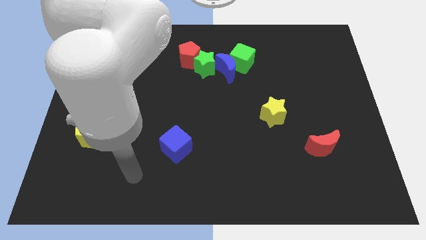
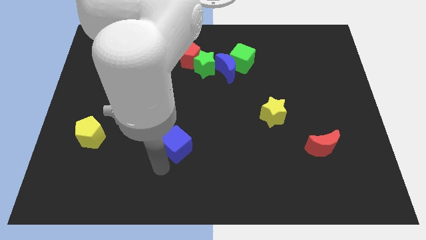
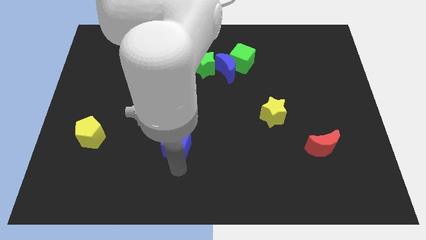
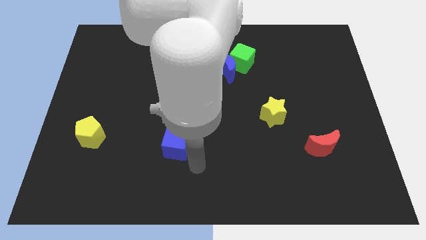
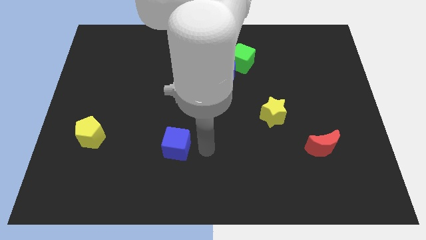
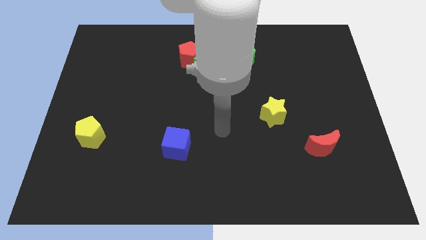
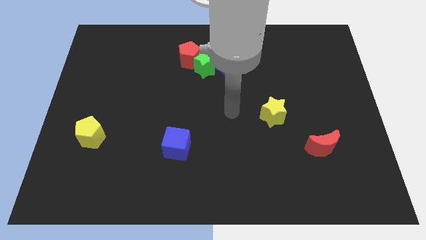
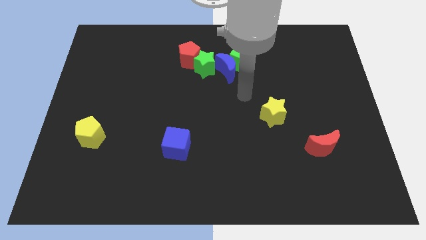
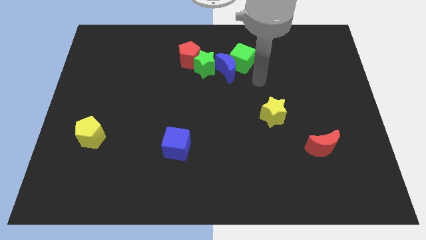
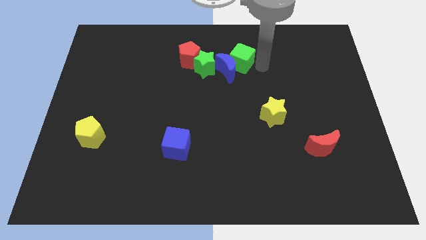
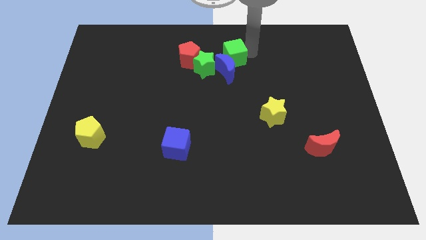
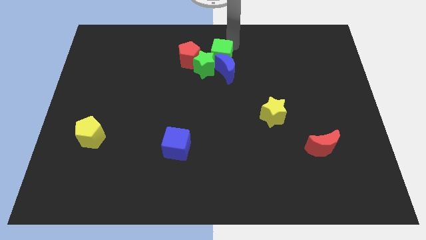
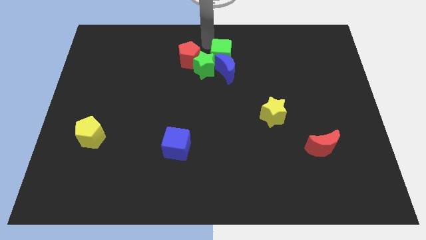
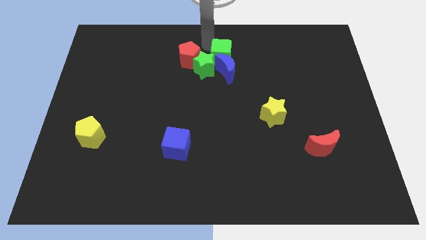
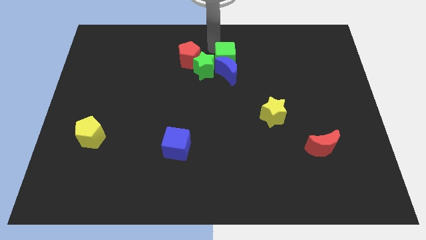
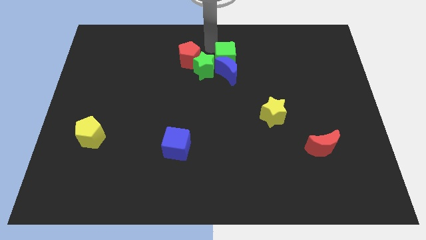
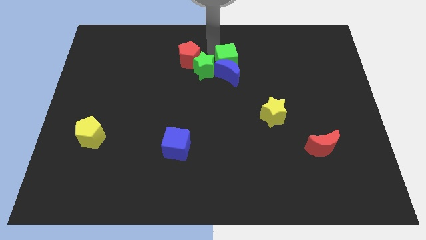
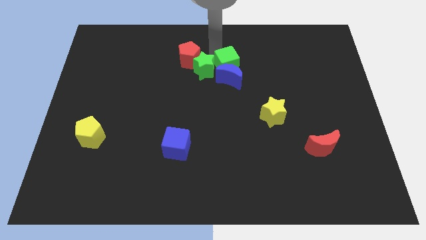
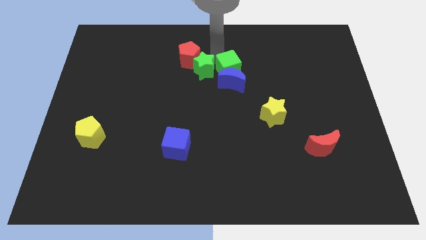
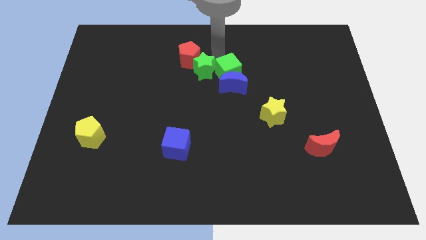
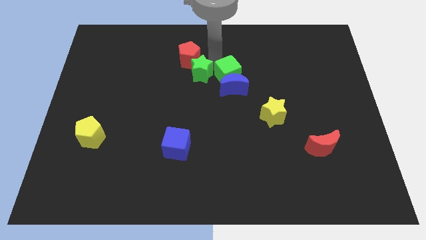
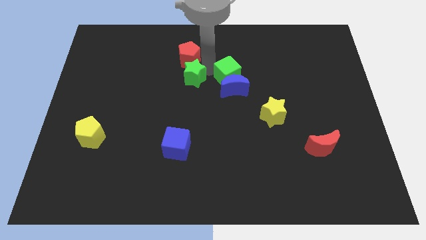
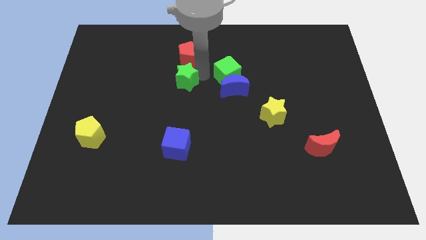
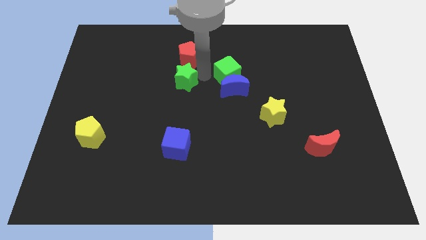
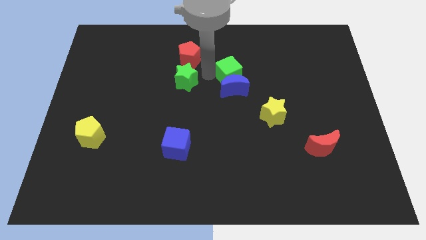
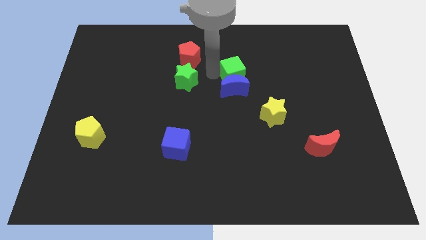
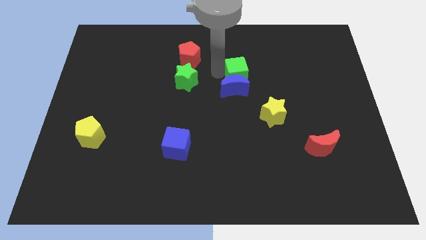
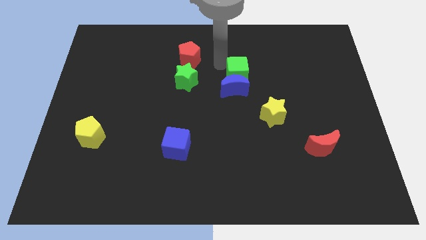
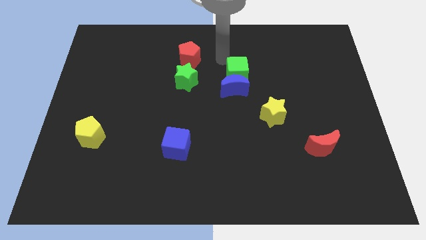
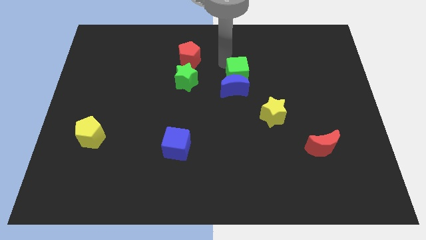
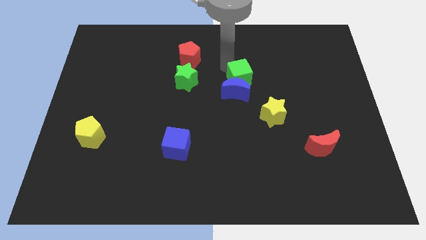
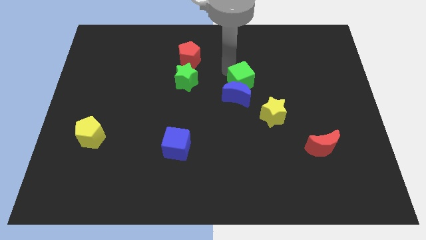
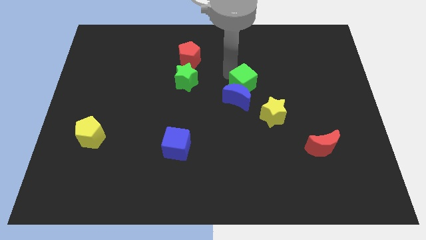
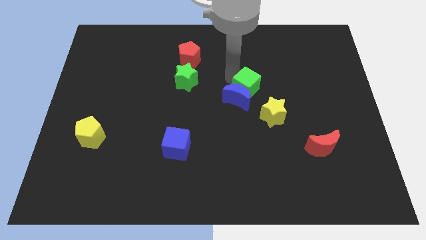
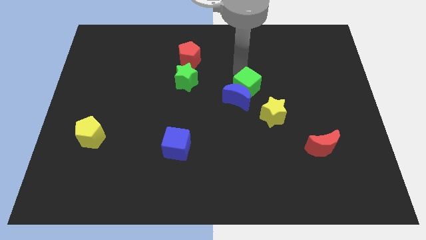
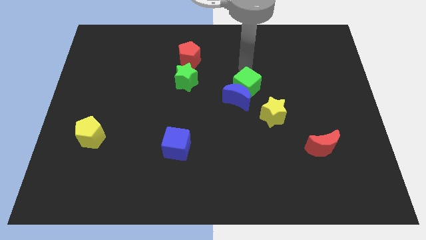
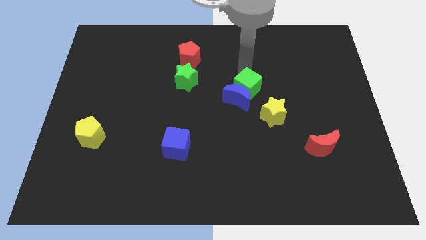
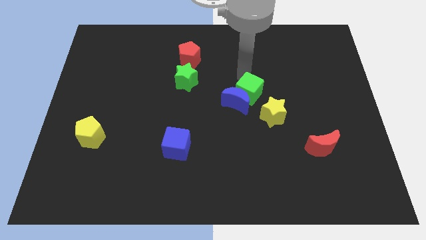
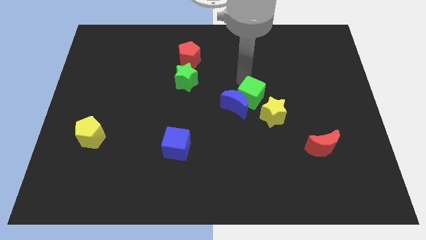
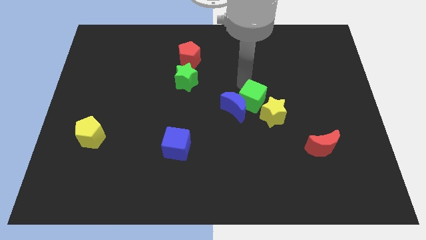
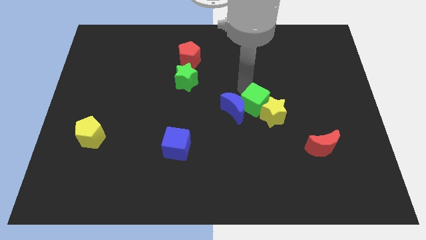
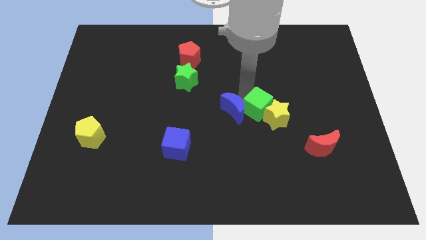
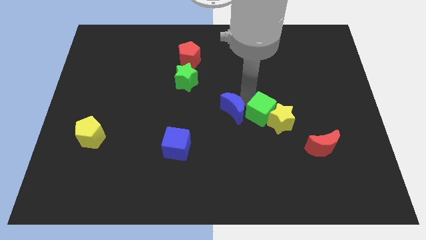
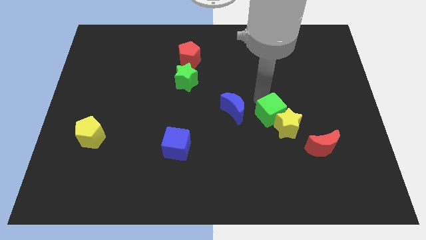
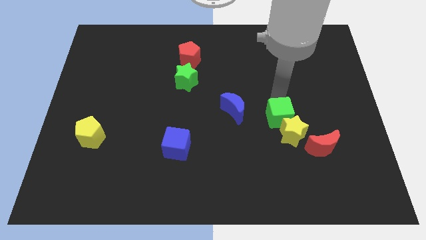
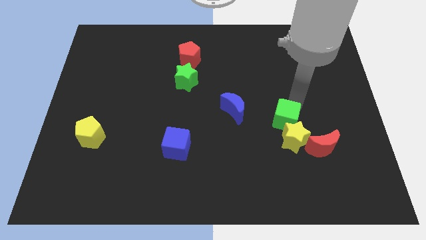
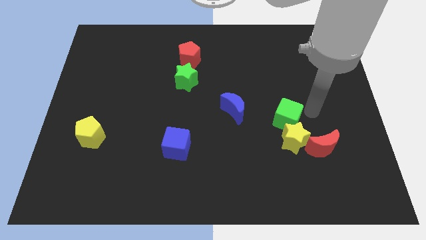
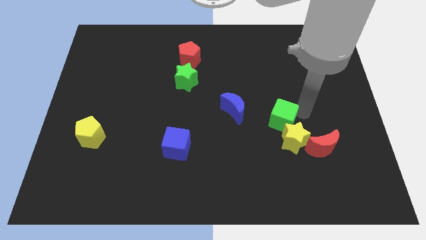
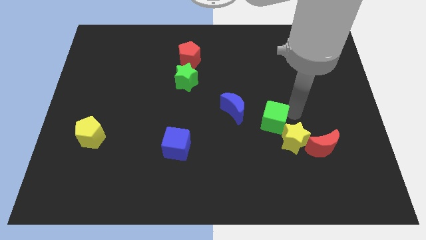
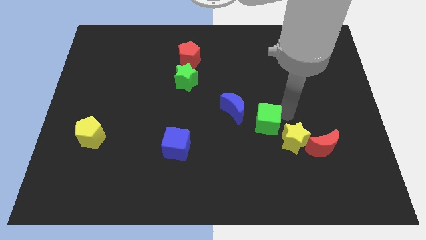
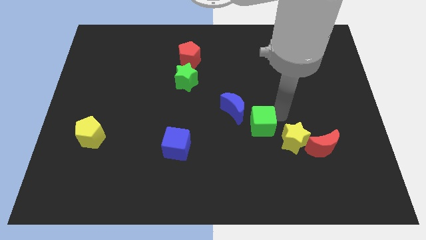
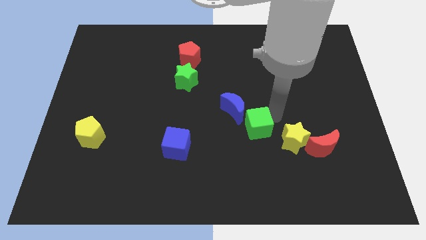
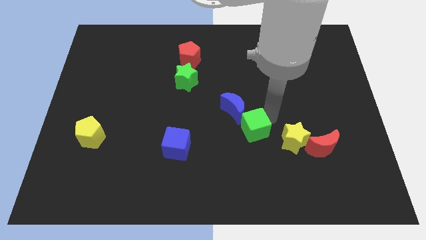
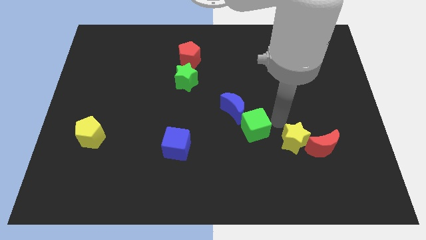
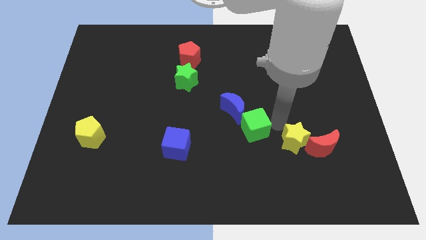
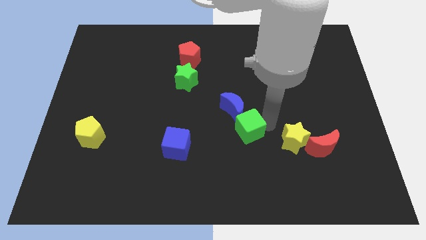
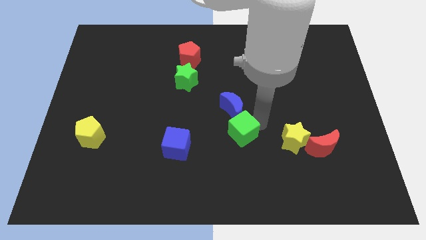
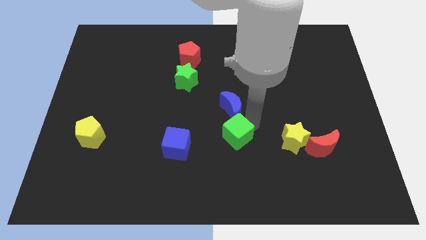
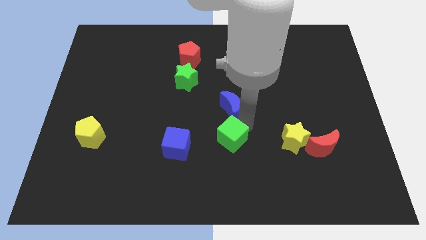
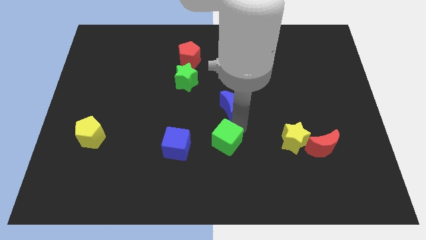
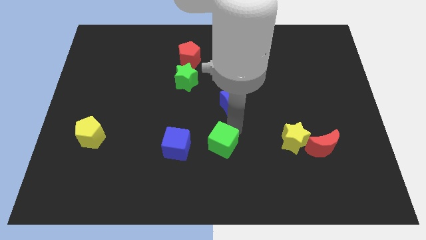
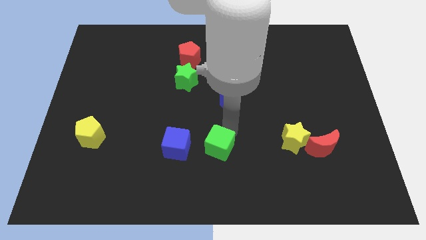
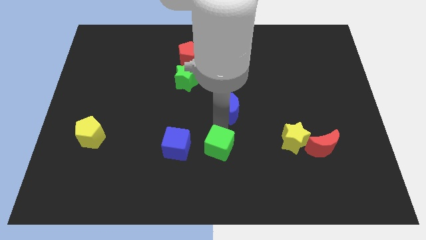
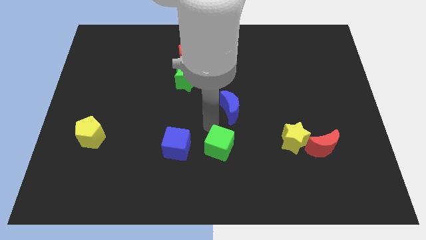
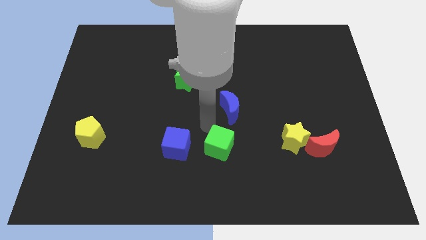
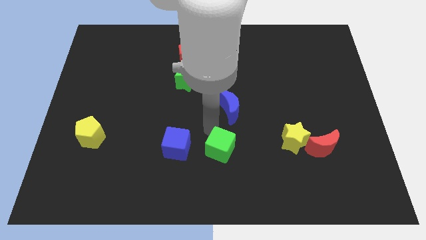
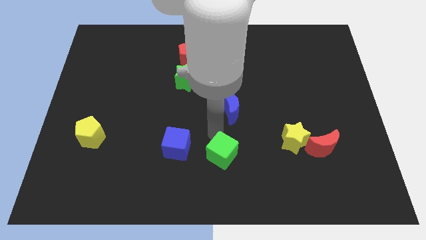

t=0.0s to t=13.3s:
move the green cube to the bottom
